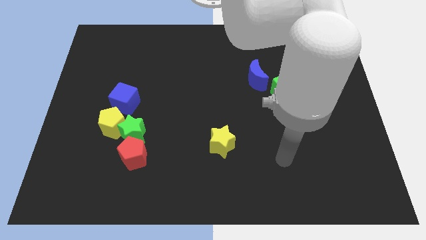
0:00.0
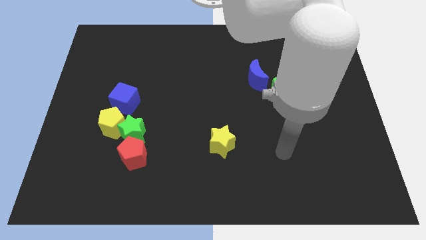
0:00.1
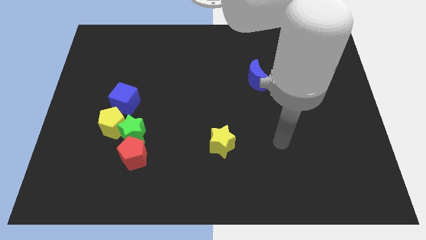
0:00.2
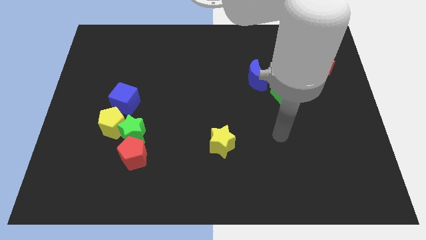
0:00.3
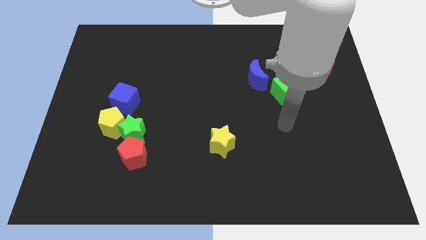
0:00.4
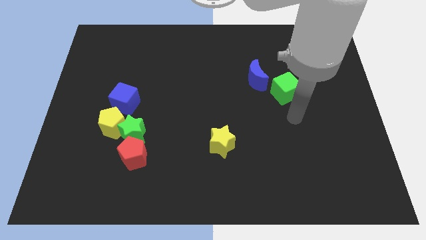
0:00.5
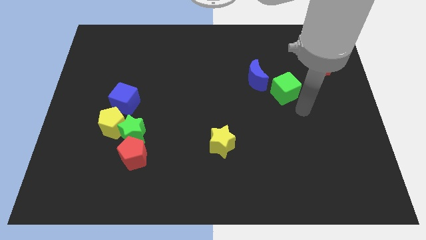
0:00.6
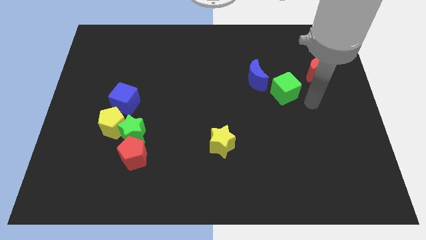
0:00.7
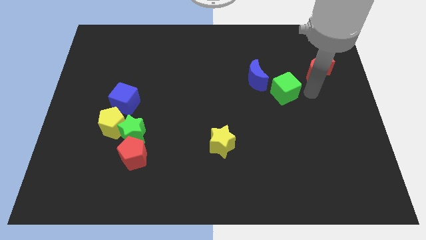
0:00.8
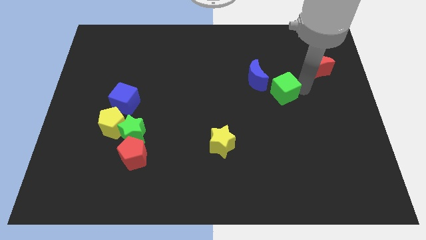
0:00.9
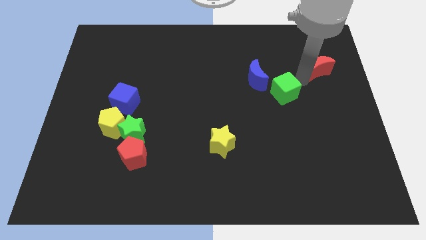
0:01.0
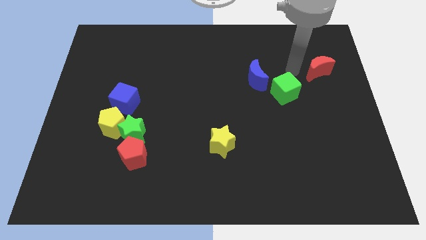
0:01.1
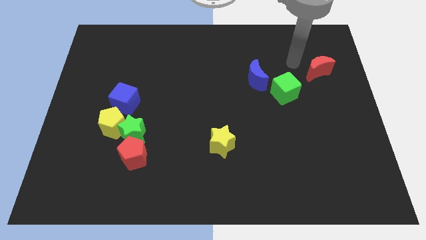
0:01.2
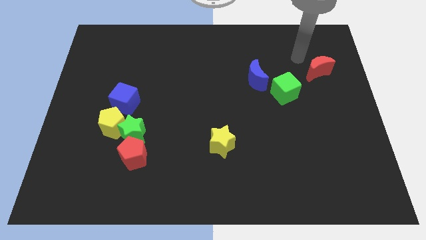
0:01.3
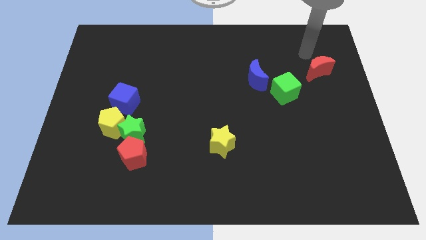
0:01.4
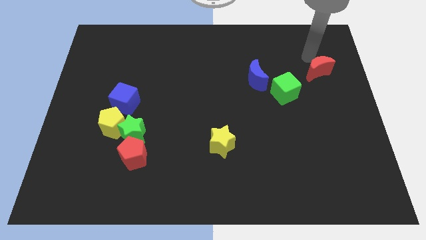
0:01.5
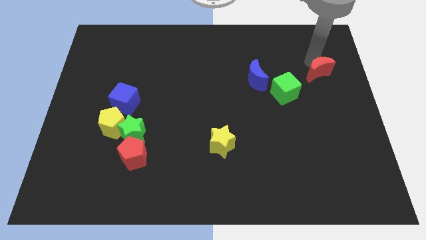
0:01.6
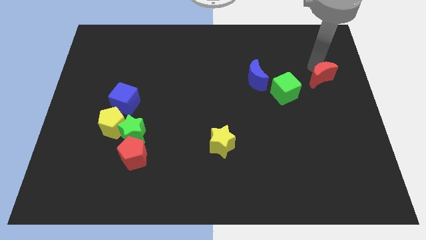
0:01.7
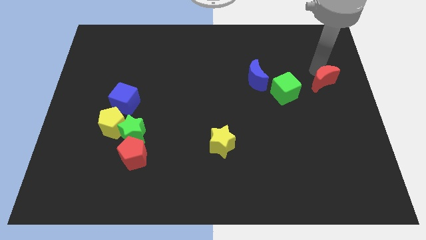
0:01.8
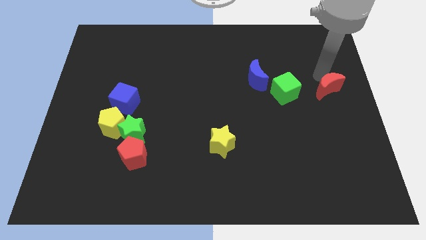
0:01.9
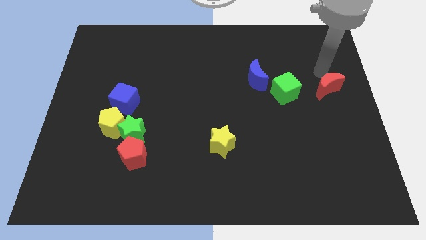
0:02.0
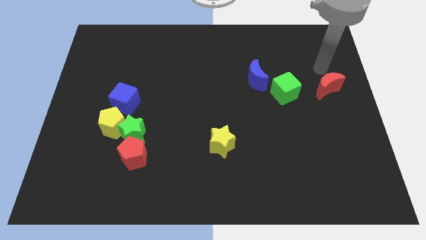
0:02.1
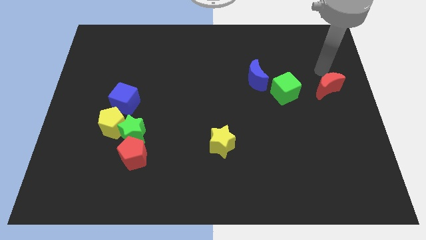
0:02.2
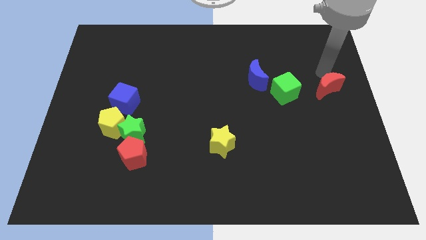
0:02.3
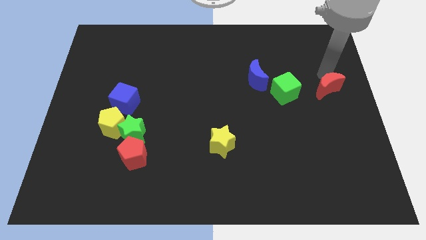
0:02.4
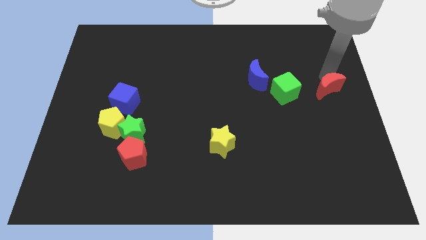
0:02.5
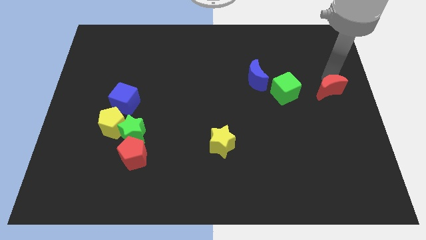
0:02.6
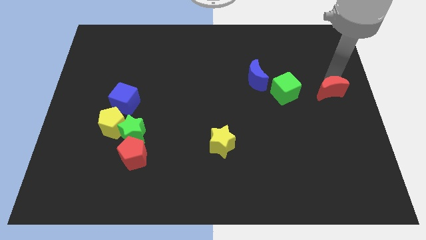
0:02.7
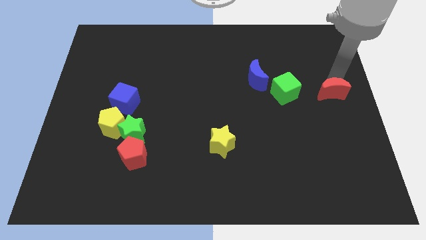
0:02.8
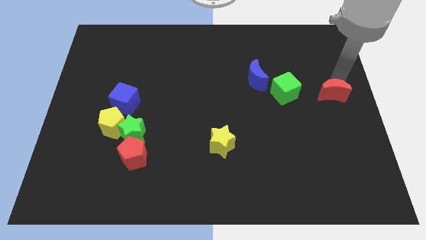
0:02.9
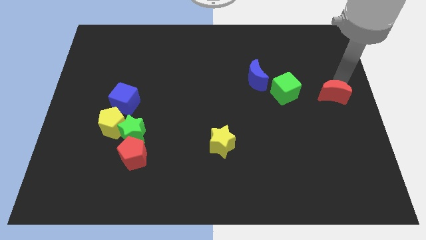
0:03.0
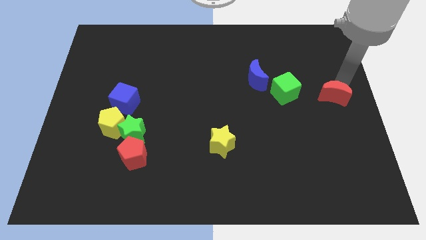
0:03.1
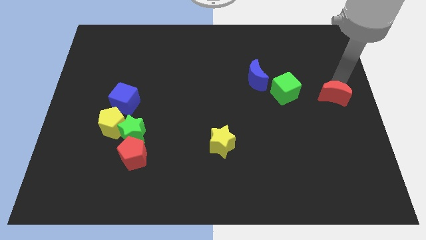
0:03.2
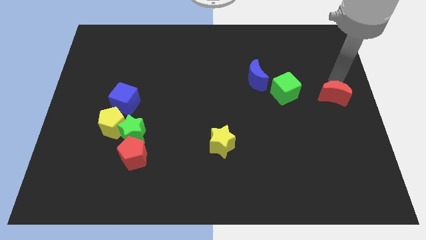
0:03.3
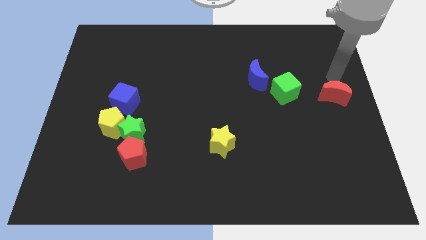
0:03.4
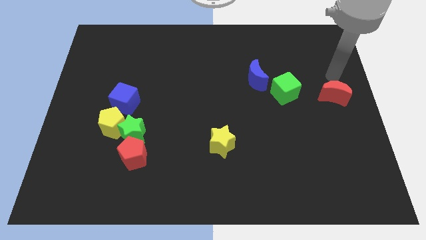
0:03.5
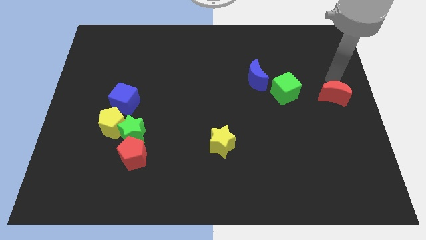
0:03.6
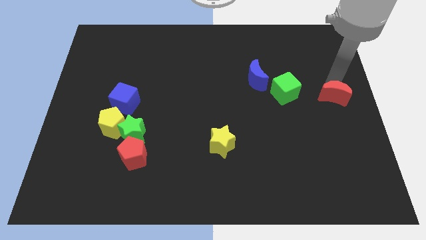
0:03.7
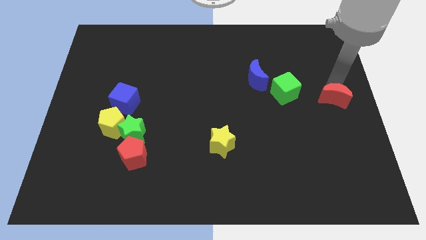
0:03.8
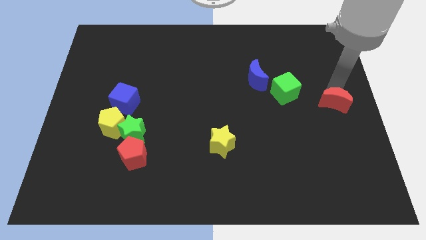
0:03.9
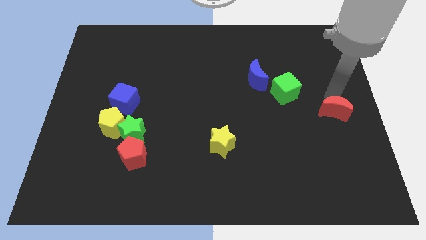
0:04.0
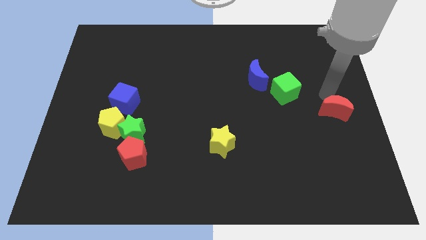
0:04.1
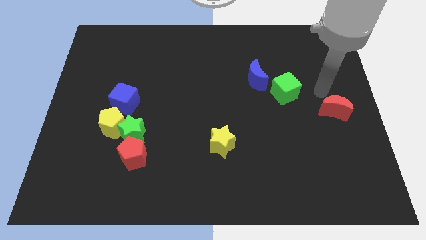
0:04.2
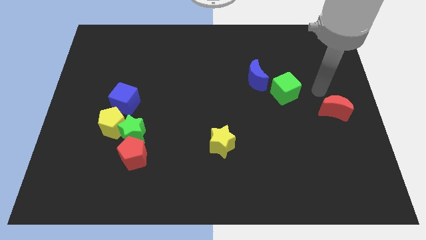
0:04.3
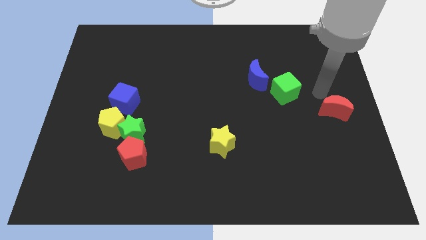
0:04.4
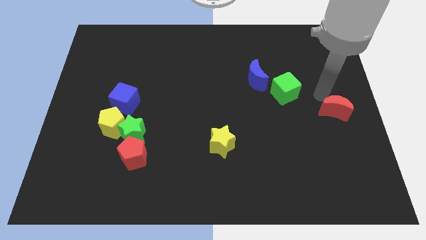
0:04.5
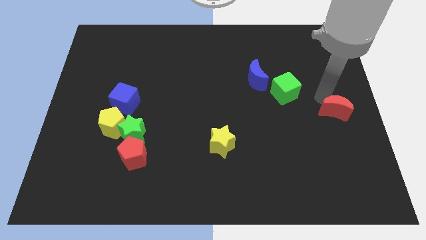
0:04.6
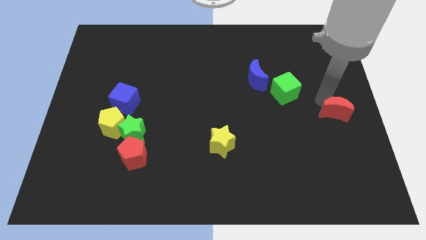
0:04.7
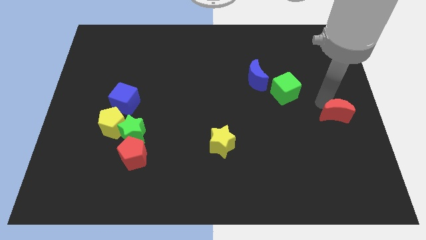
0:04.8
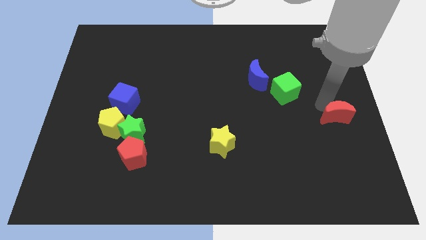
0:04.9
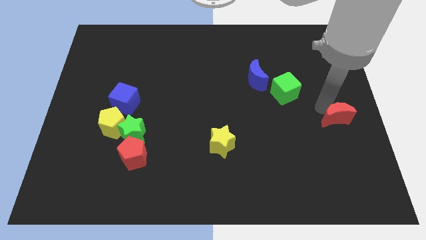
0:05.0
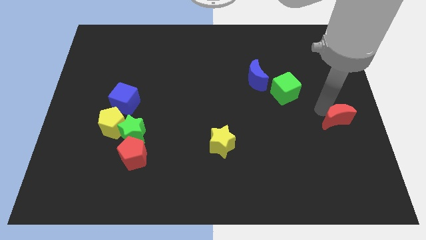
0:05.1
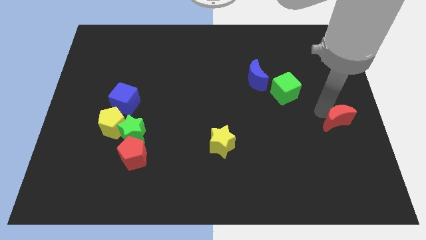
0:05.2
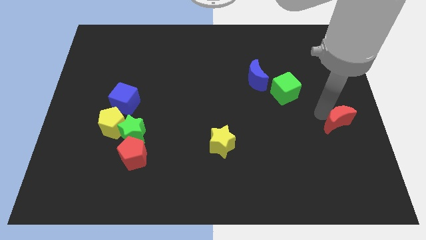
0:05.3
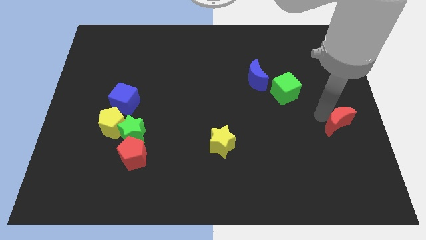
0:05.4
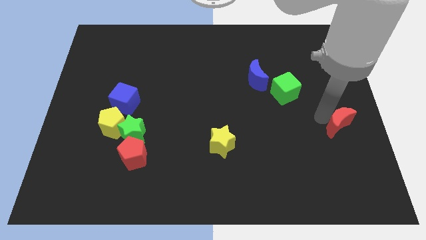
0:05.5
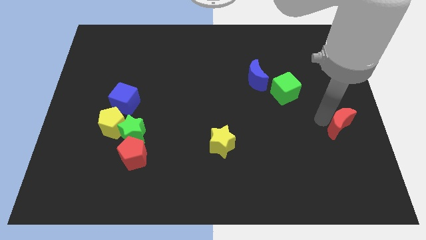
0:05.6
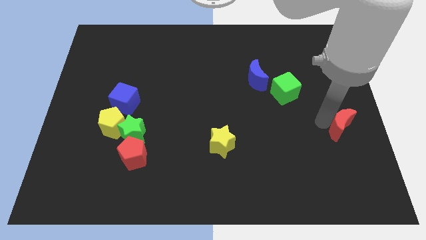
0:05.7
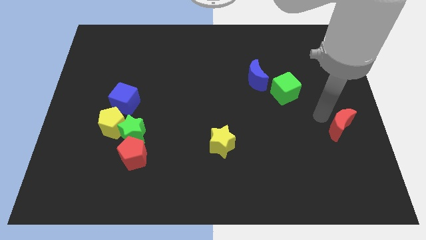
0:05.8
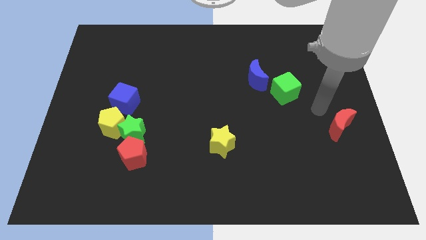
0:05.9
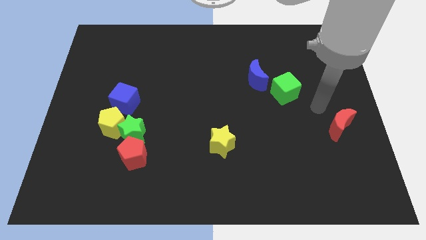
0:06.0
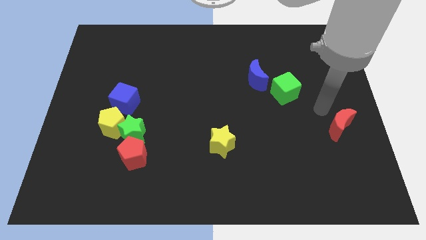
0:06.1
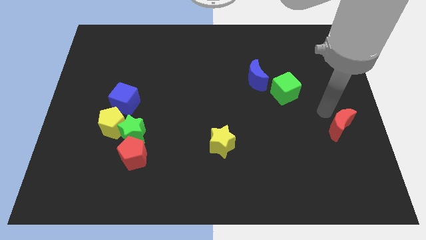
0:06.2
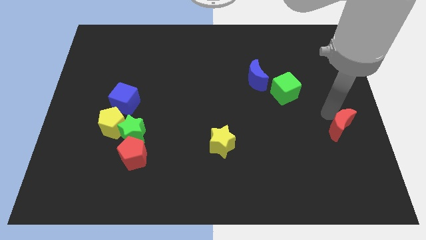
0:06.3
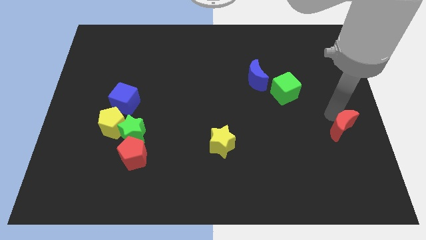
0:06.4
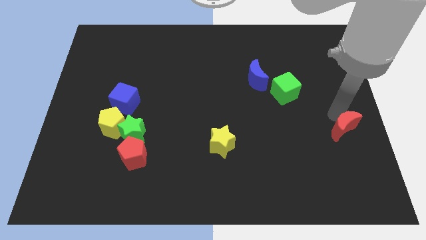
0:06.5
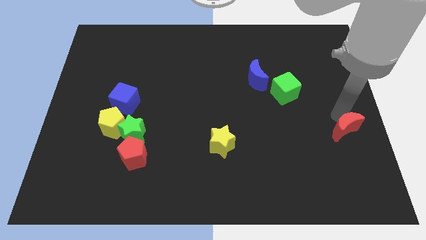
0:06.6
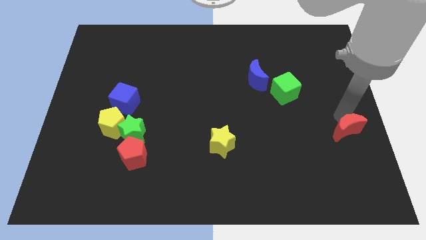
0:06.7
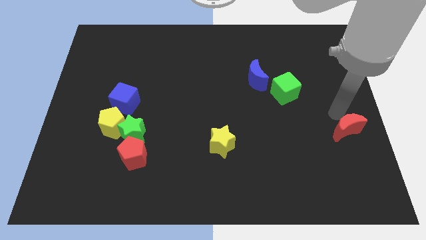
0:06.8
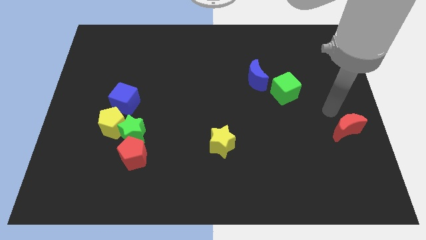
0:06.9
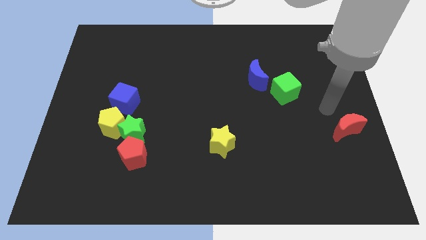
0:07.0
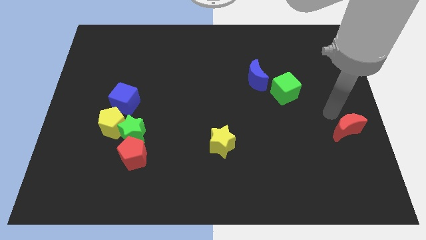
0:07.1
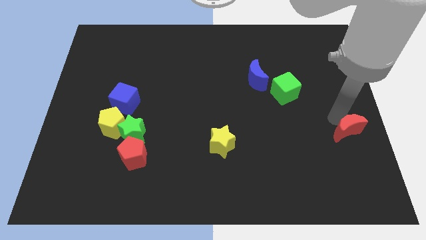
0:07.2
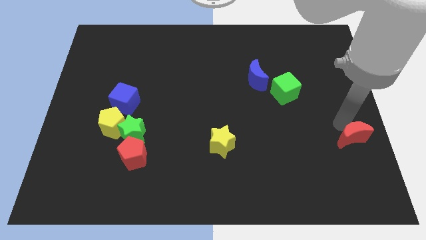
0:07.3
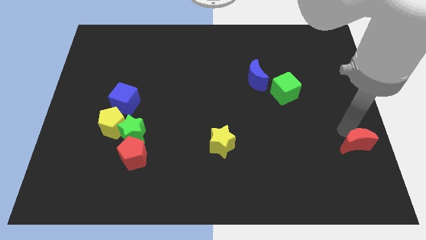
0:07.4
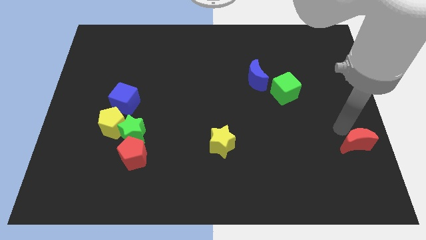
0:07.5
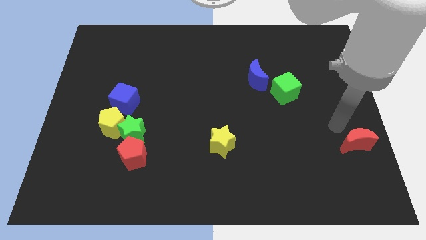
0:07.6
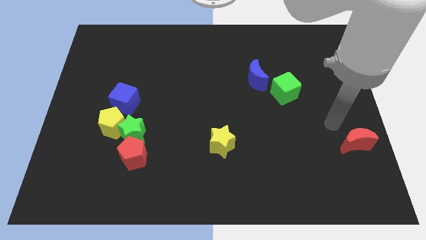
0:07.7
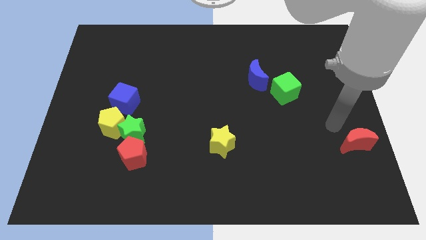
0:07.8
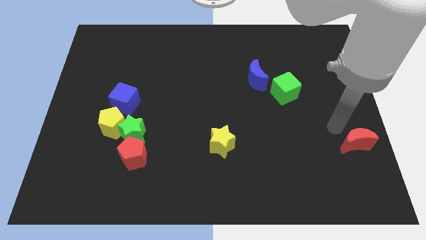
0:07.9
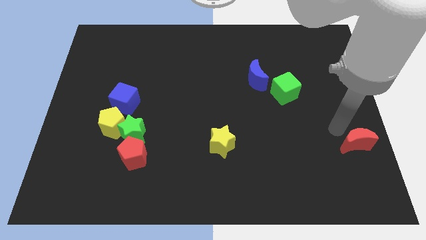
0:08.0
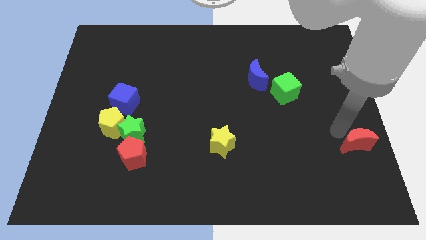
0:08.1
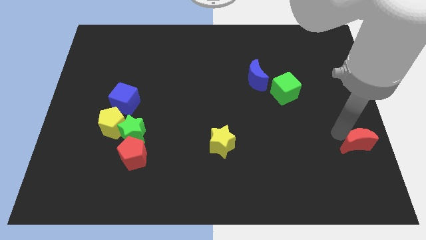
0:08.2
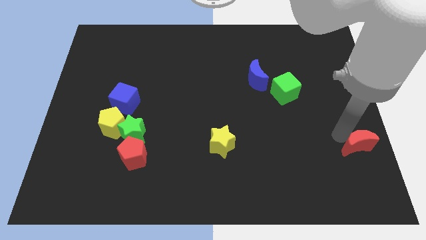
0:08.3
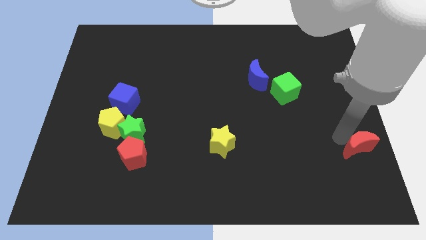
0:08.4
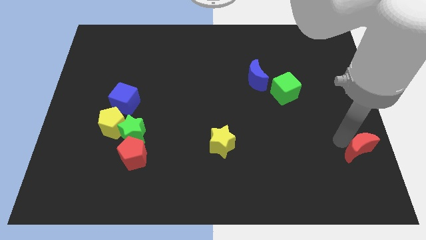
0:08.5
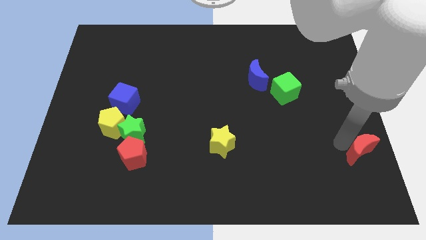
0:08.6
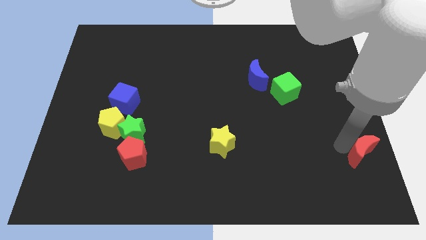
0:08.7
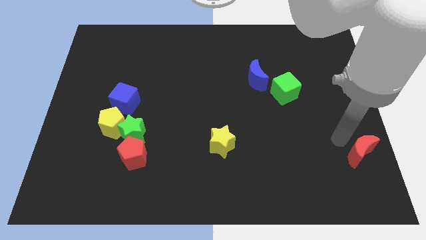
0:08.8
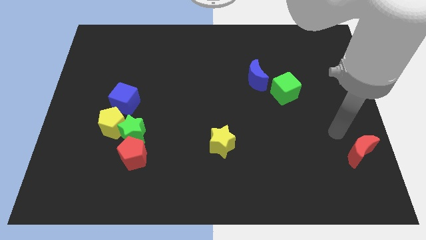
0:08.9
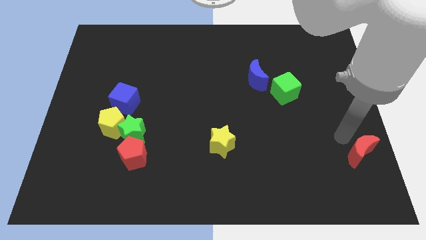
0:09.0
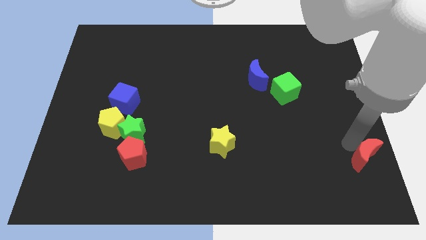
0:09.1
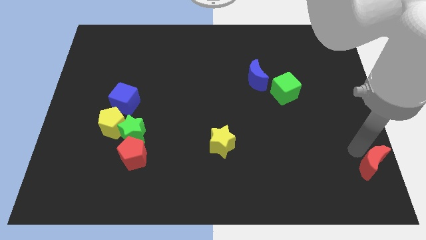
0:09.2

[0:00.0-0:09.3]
put the red moon to the bottom right of the board
